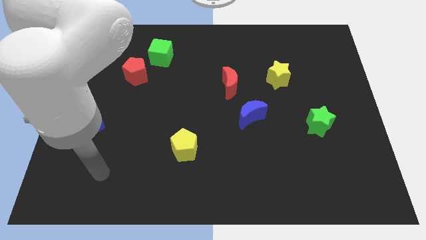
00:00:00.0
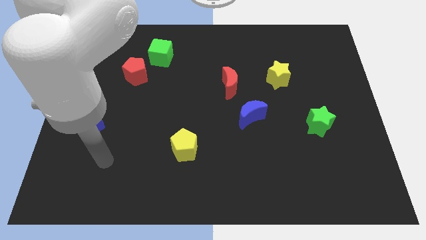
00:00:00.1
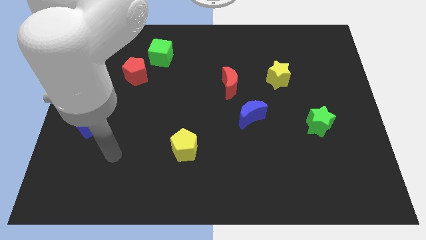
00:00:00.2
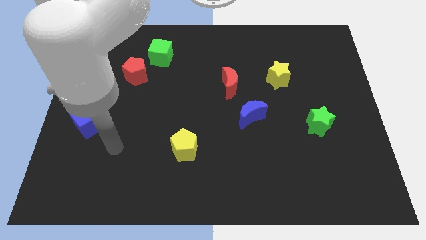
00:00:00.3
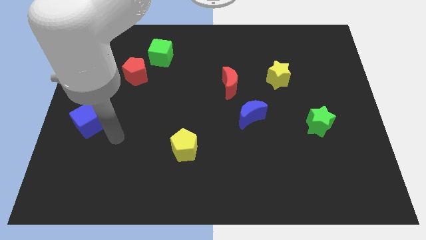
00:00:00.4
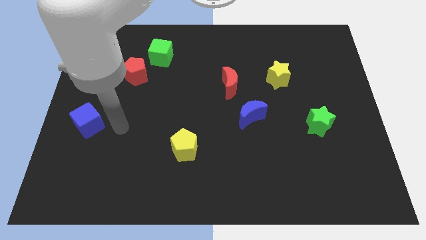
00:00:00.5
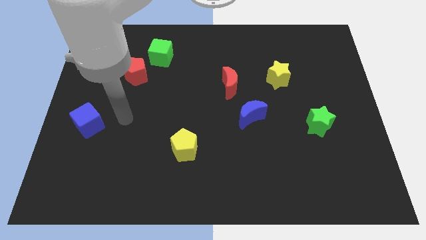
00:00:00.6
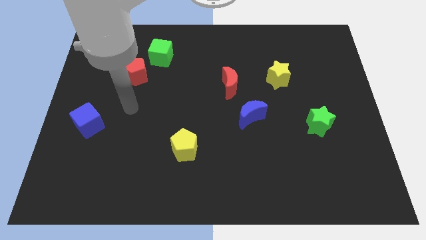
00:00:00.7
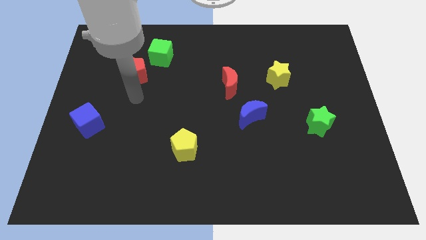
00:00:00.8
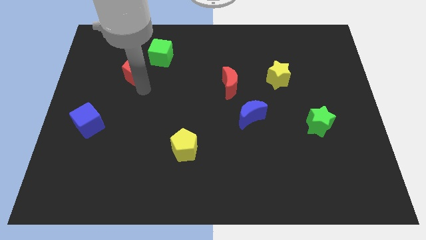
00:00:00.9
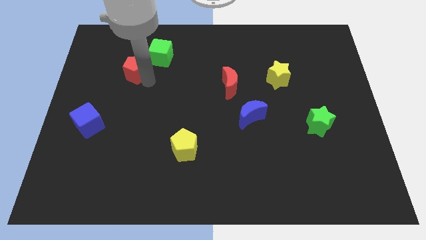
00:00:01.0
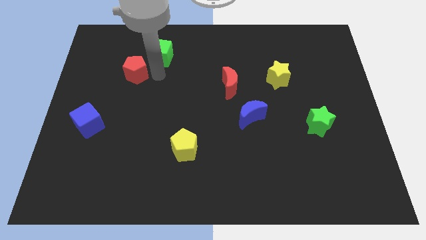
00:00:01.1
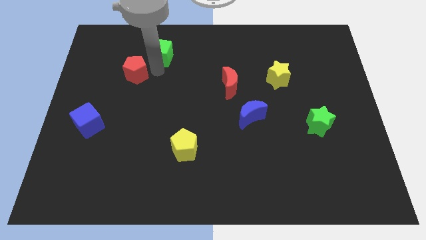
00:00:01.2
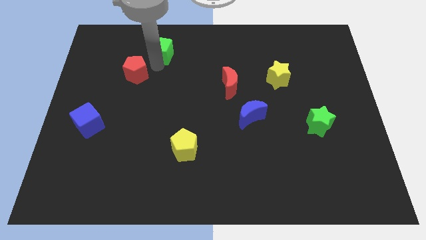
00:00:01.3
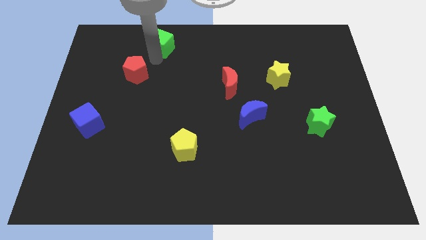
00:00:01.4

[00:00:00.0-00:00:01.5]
pull the red pentagon apart from the green cube

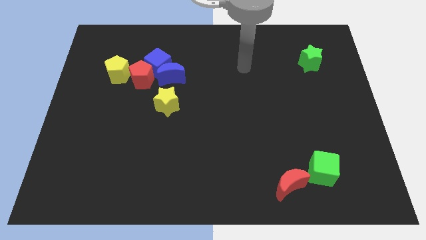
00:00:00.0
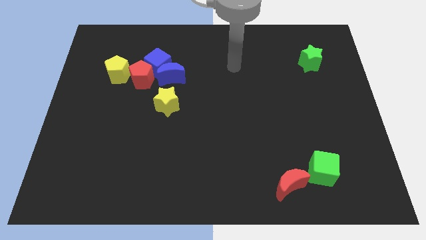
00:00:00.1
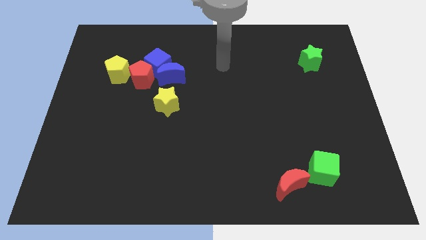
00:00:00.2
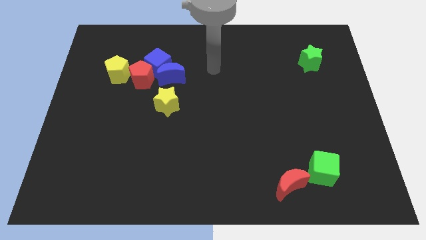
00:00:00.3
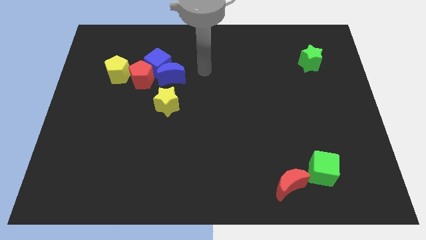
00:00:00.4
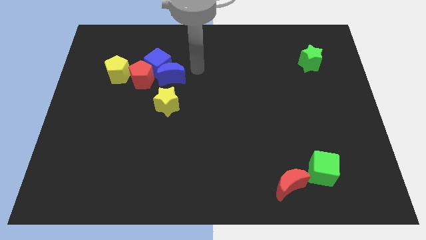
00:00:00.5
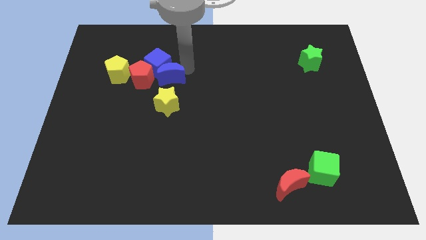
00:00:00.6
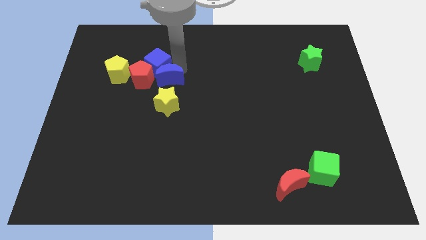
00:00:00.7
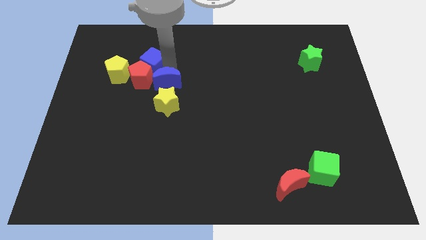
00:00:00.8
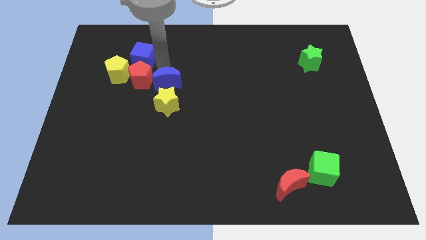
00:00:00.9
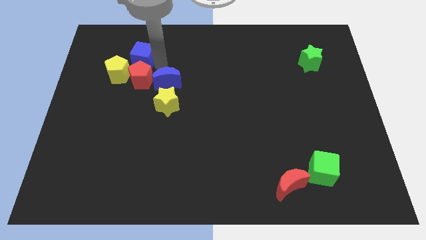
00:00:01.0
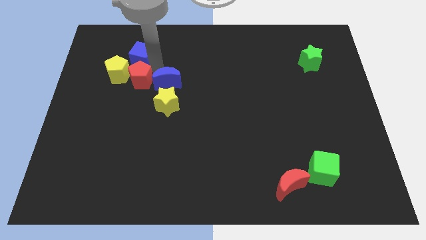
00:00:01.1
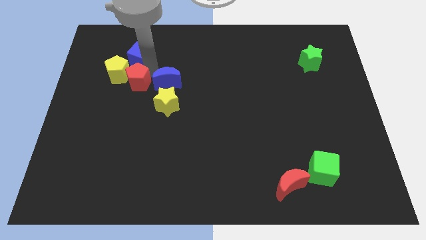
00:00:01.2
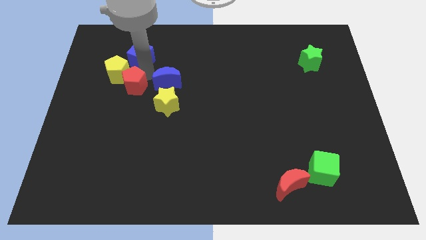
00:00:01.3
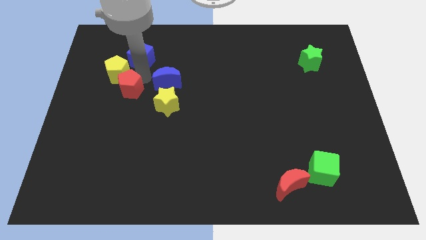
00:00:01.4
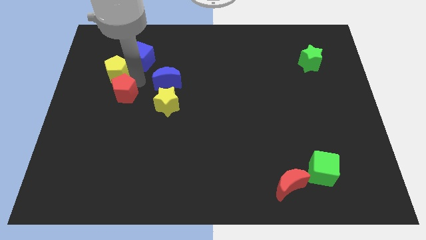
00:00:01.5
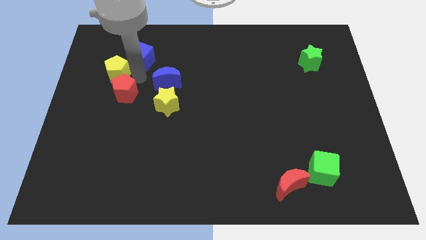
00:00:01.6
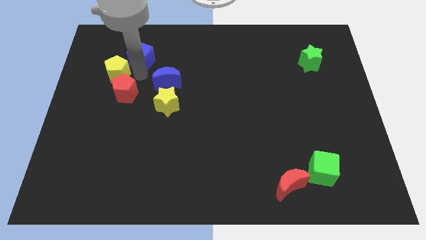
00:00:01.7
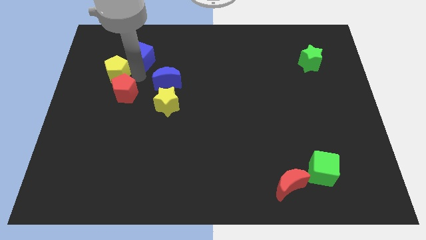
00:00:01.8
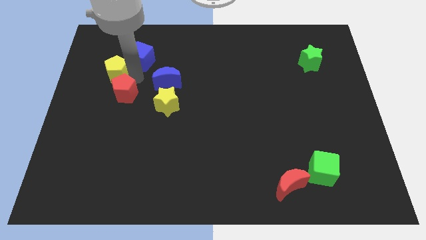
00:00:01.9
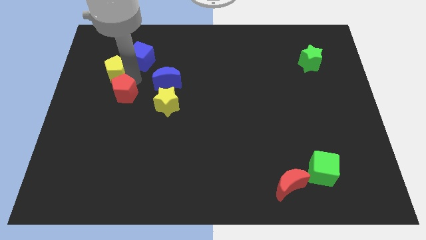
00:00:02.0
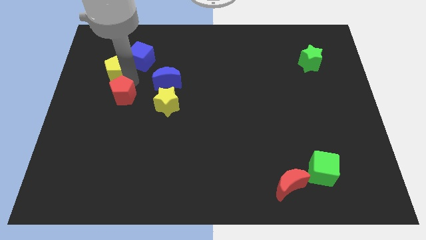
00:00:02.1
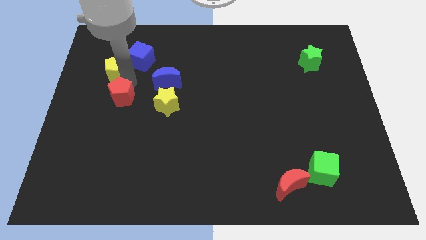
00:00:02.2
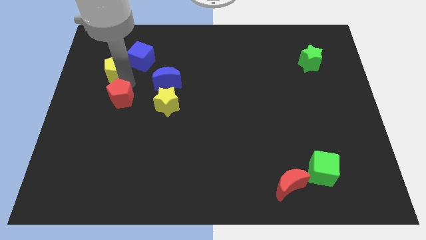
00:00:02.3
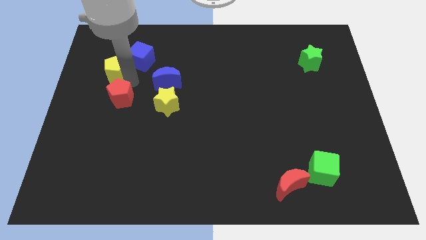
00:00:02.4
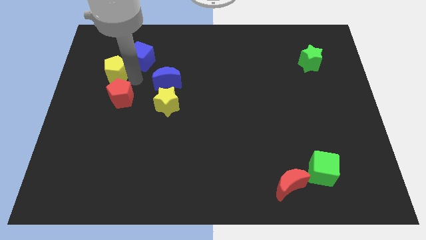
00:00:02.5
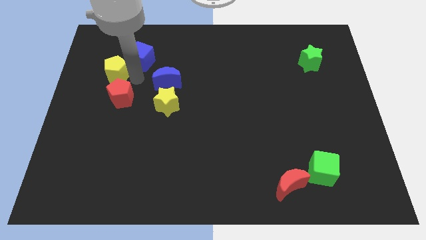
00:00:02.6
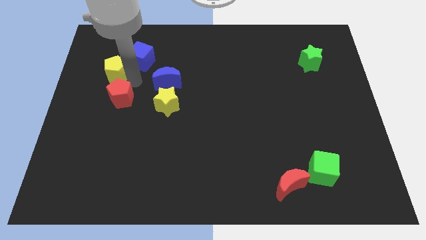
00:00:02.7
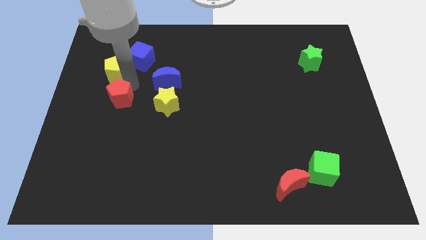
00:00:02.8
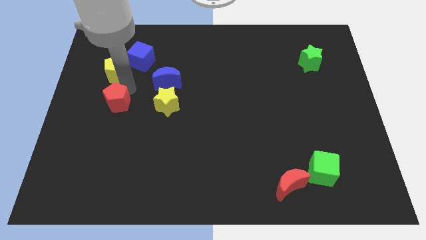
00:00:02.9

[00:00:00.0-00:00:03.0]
pull the red pentagon apart from the group of blocks

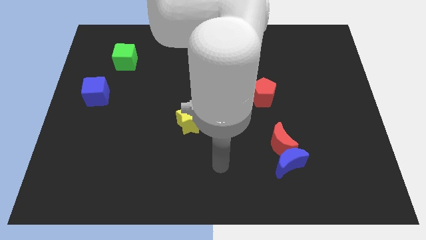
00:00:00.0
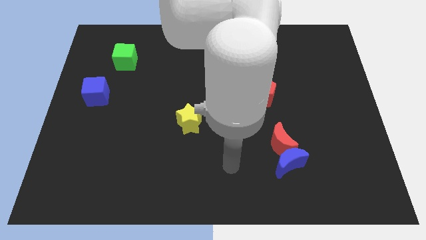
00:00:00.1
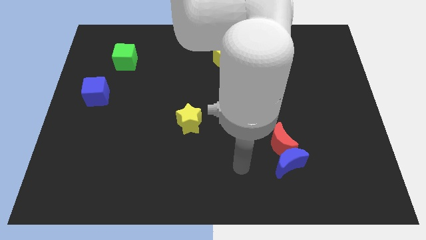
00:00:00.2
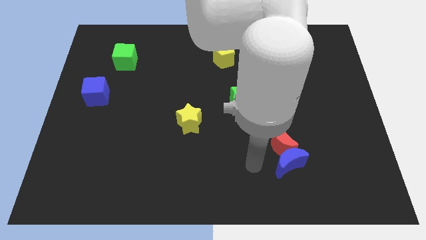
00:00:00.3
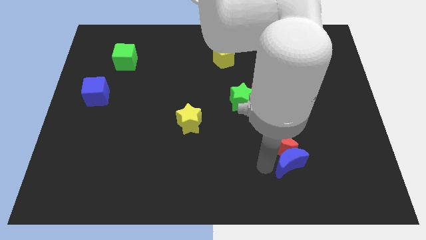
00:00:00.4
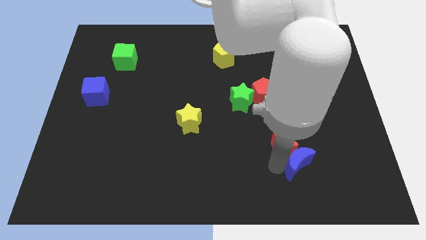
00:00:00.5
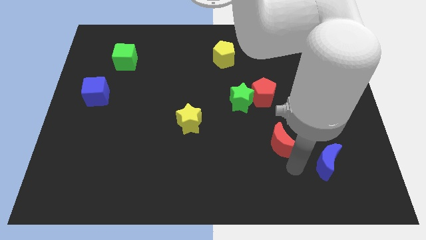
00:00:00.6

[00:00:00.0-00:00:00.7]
move the red moon away from the blue moon

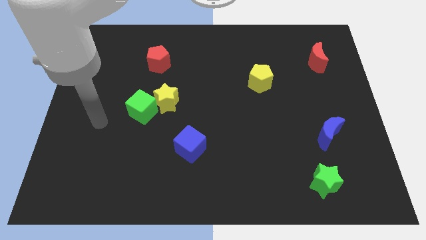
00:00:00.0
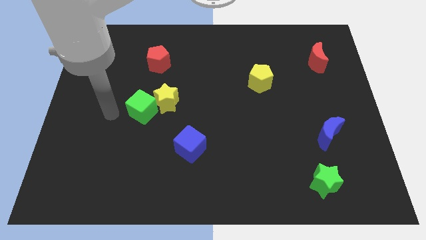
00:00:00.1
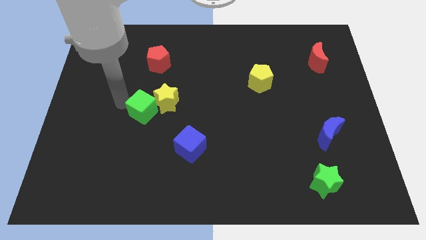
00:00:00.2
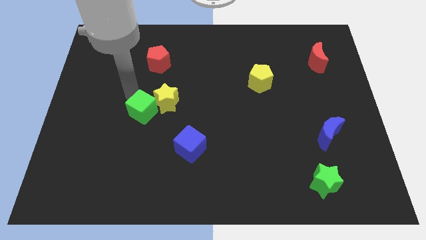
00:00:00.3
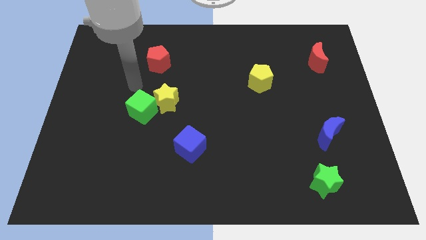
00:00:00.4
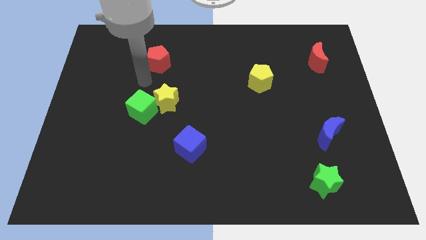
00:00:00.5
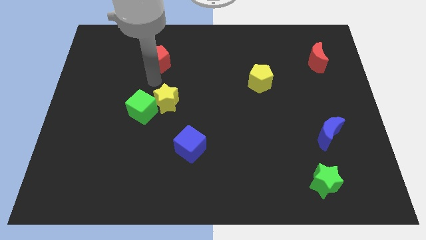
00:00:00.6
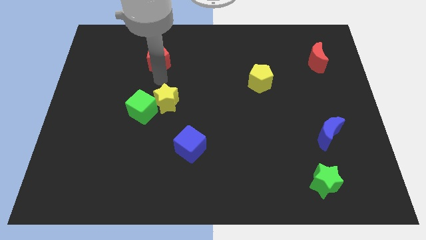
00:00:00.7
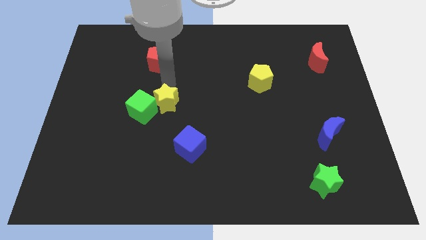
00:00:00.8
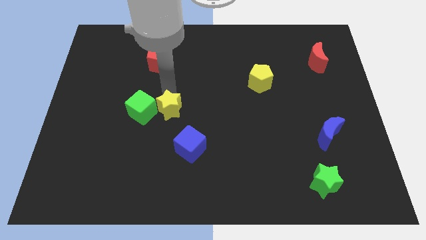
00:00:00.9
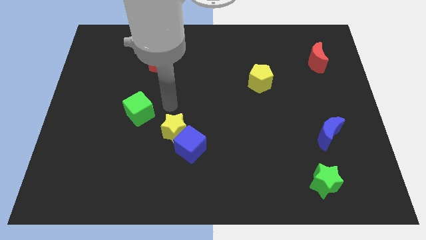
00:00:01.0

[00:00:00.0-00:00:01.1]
move the green cube away from the yellow star

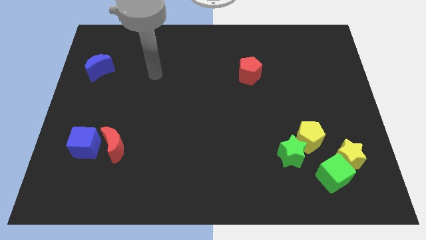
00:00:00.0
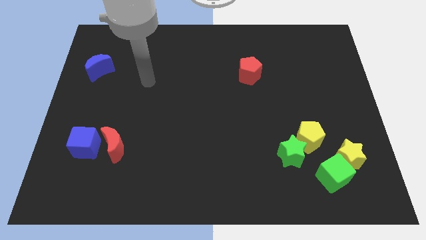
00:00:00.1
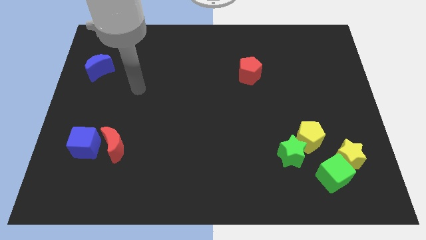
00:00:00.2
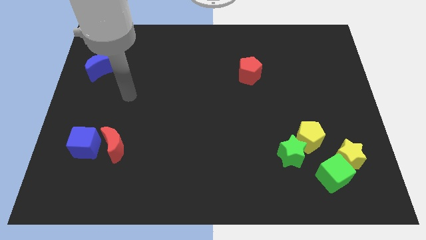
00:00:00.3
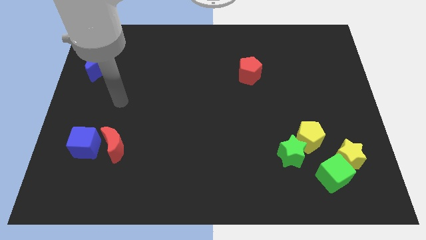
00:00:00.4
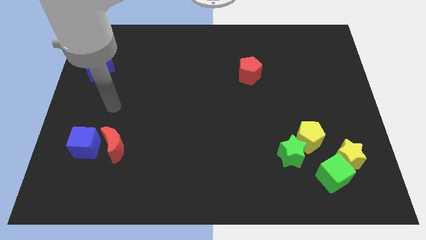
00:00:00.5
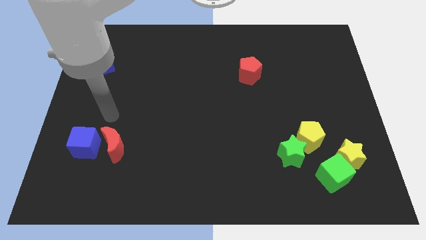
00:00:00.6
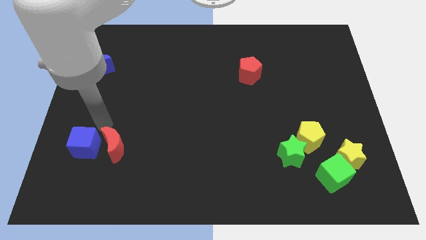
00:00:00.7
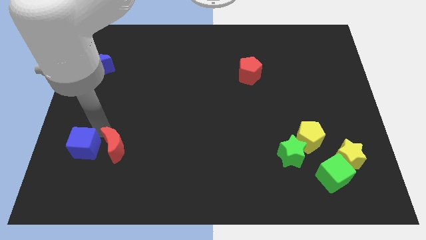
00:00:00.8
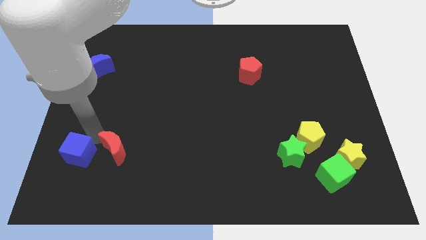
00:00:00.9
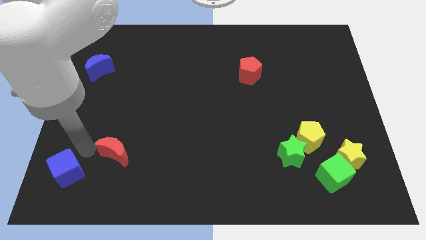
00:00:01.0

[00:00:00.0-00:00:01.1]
pull the red moon apart from the blue cube

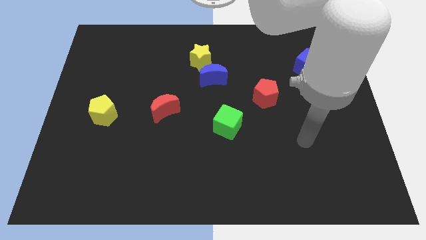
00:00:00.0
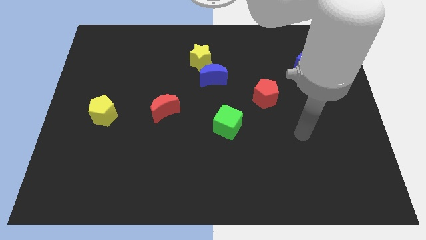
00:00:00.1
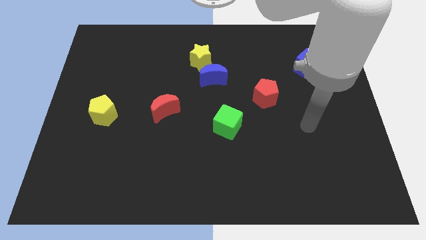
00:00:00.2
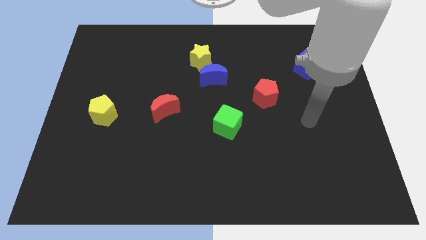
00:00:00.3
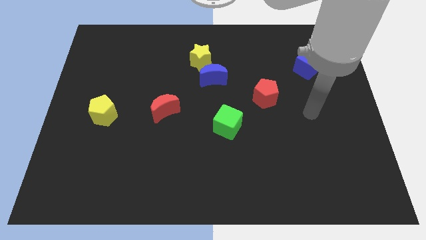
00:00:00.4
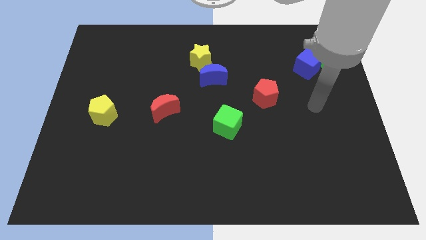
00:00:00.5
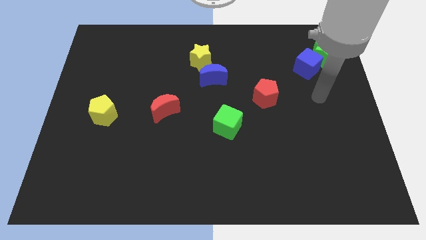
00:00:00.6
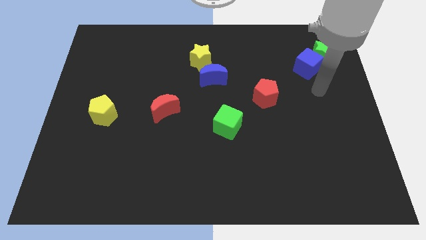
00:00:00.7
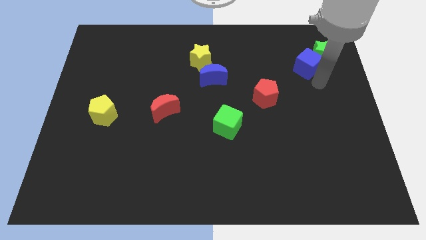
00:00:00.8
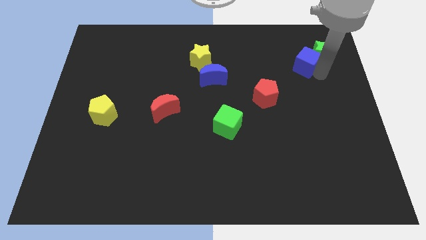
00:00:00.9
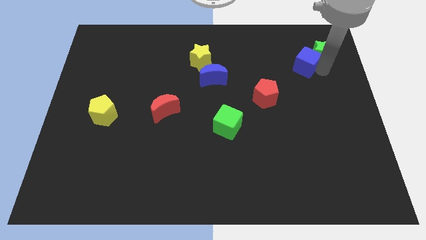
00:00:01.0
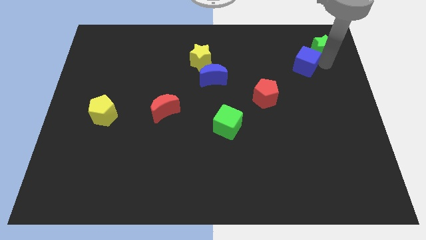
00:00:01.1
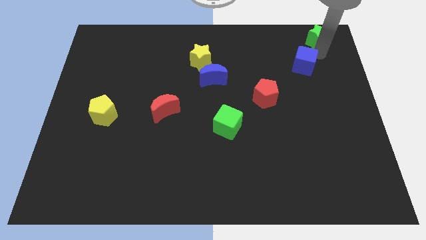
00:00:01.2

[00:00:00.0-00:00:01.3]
pull the blue cube apart from the green star

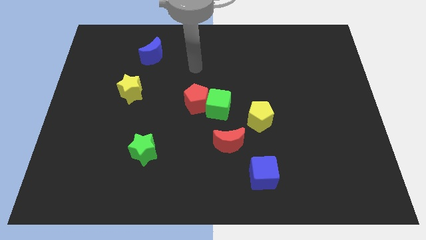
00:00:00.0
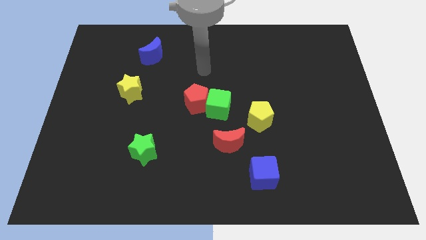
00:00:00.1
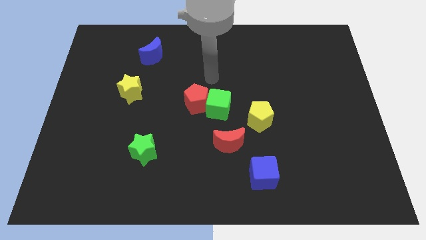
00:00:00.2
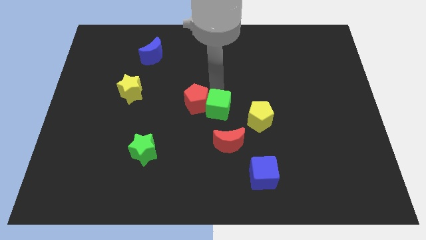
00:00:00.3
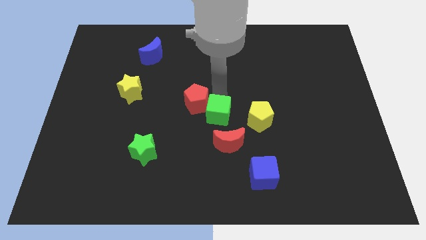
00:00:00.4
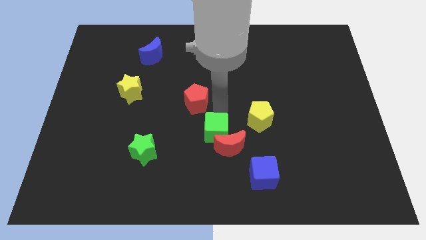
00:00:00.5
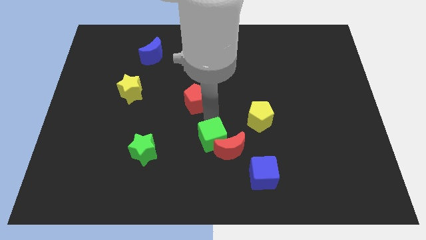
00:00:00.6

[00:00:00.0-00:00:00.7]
move the red pentagon away from the green cube
